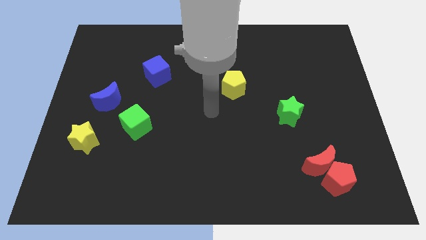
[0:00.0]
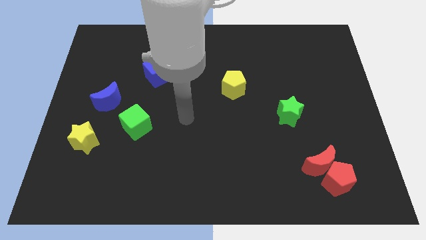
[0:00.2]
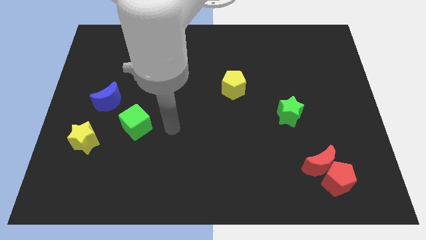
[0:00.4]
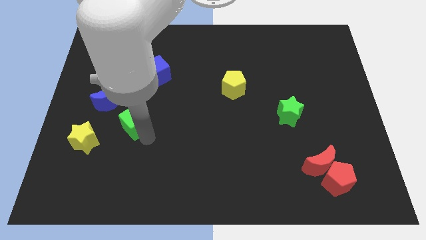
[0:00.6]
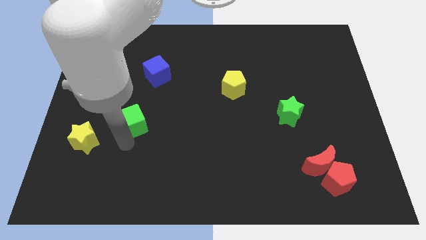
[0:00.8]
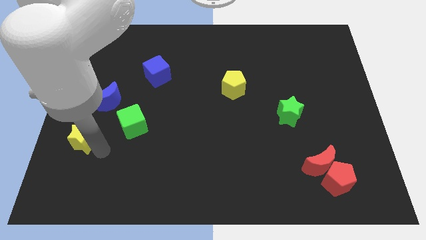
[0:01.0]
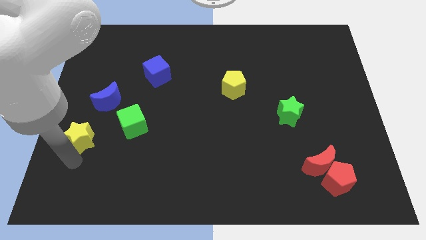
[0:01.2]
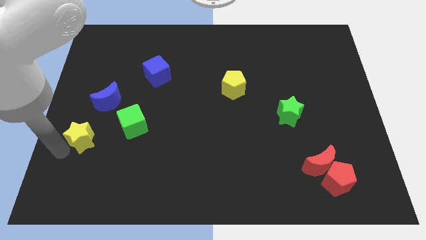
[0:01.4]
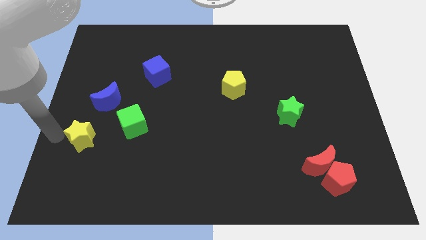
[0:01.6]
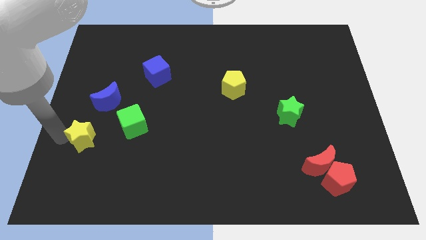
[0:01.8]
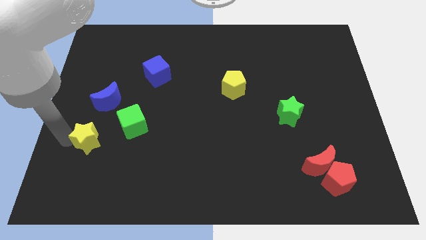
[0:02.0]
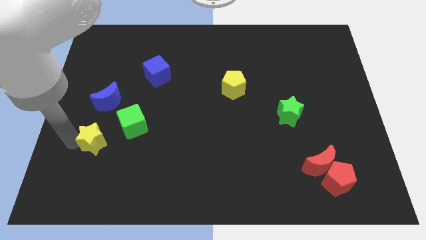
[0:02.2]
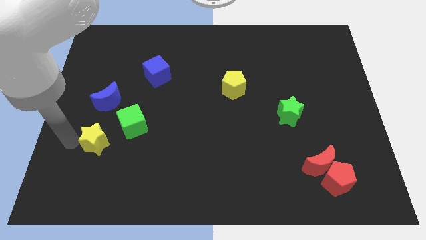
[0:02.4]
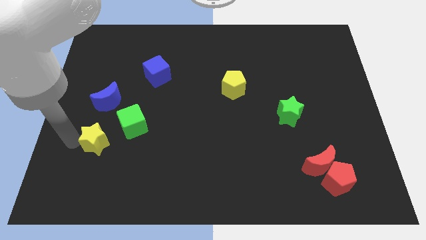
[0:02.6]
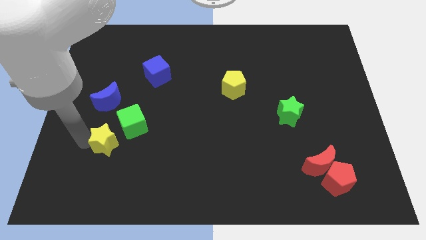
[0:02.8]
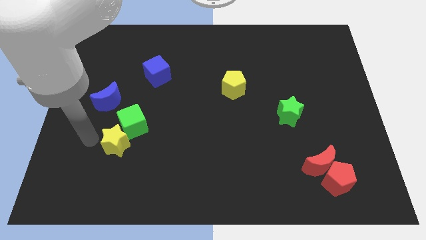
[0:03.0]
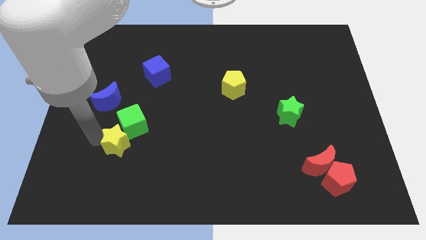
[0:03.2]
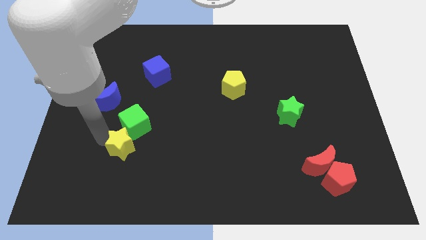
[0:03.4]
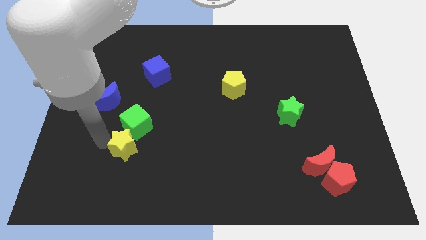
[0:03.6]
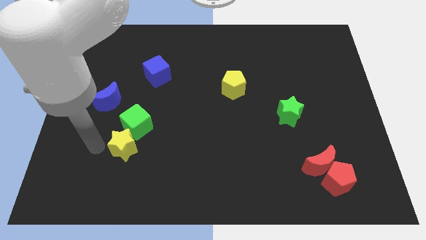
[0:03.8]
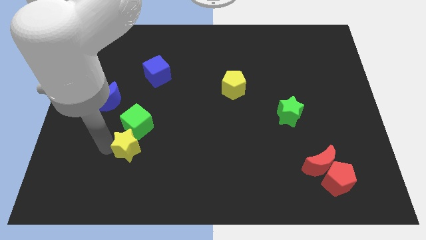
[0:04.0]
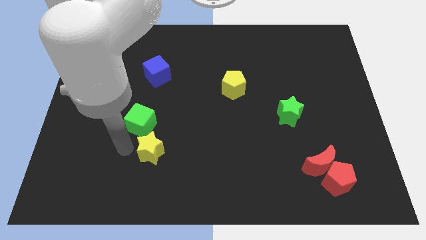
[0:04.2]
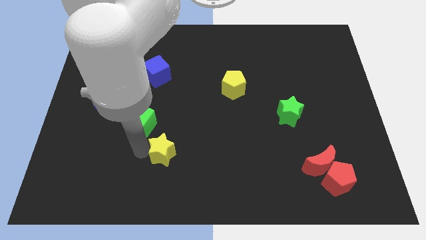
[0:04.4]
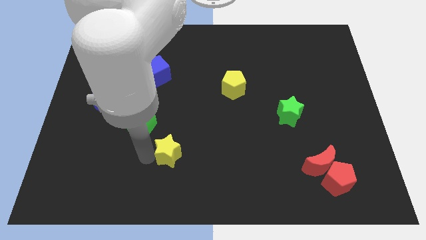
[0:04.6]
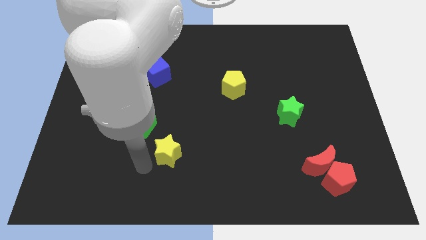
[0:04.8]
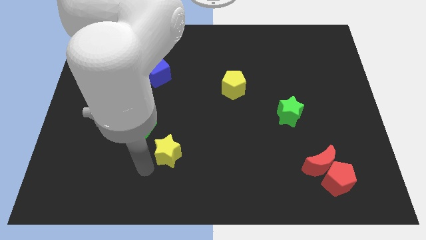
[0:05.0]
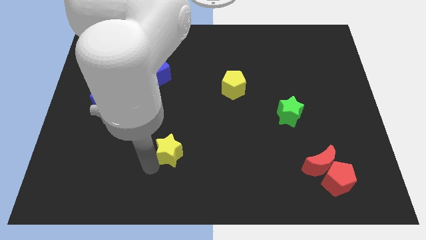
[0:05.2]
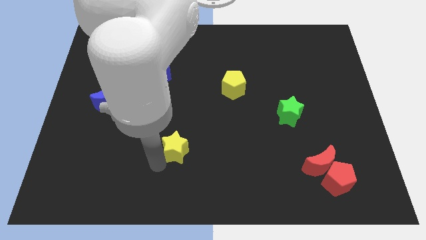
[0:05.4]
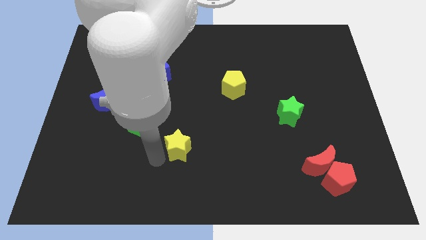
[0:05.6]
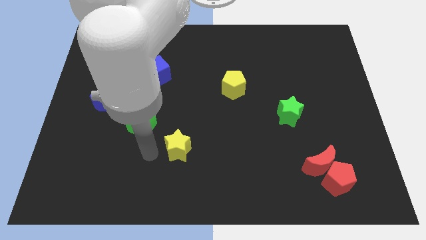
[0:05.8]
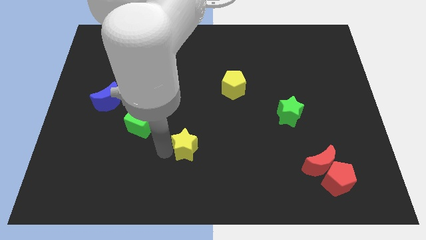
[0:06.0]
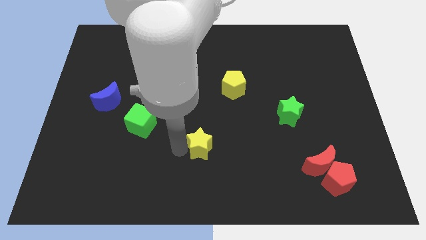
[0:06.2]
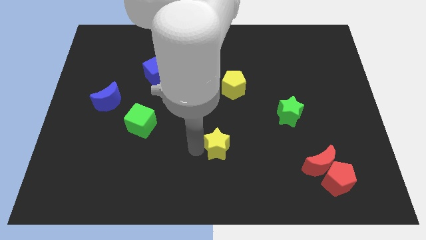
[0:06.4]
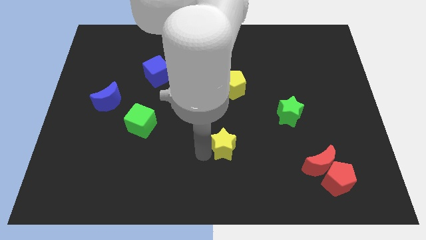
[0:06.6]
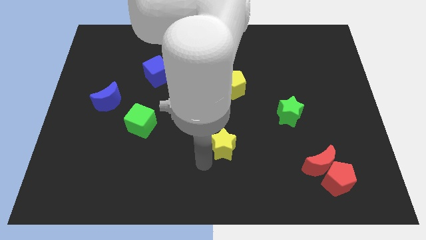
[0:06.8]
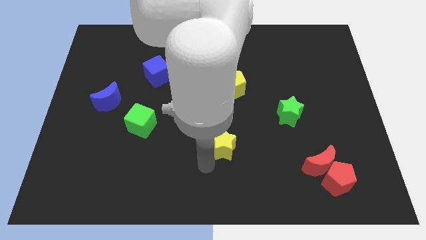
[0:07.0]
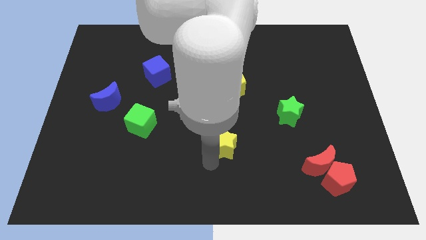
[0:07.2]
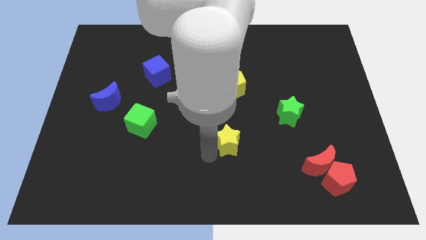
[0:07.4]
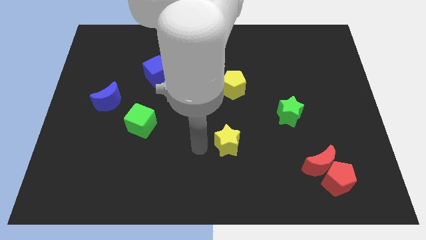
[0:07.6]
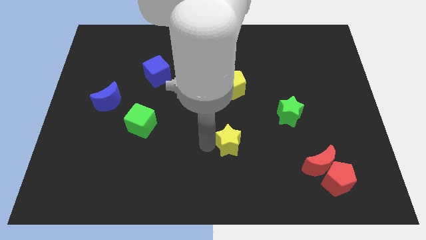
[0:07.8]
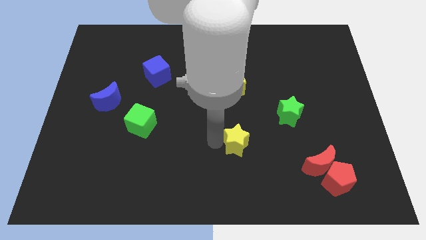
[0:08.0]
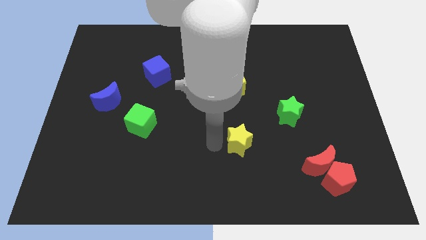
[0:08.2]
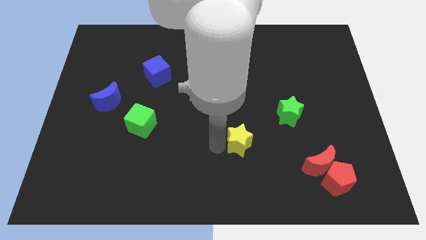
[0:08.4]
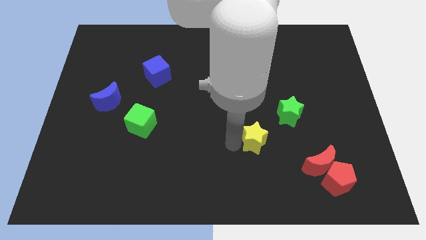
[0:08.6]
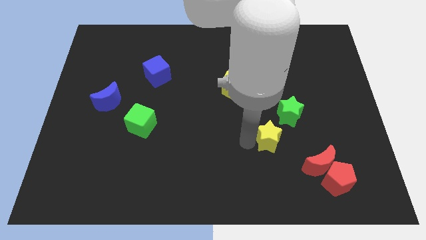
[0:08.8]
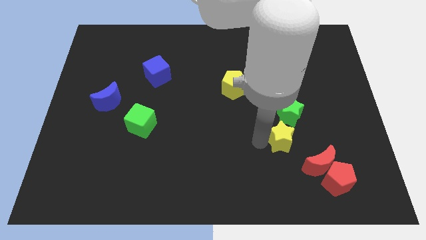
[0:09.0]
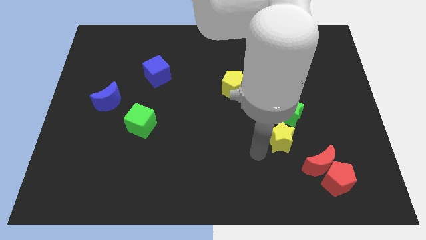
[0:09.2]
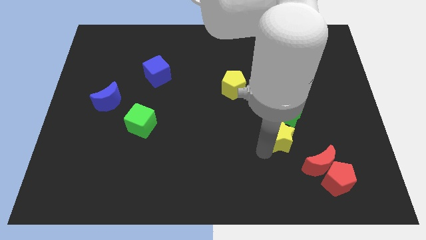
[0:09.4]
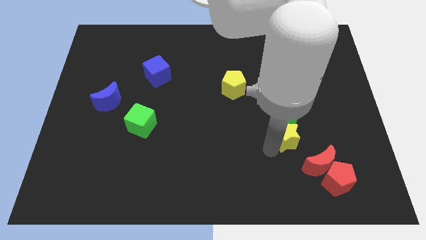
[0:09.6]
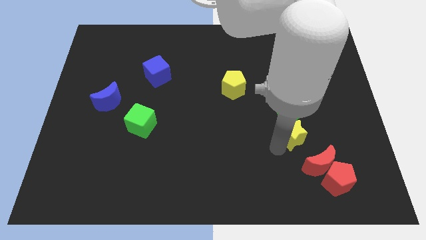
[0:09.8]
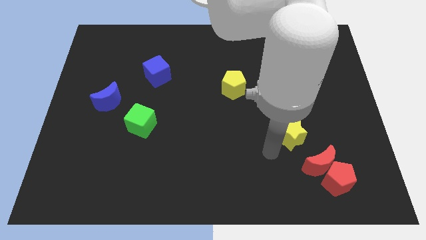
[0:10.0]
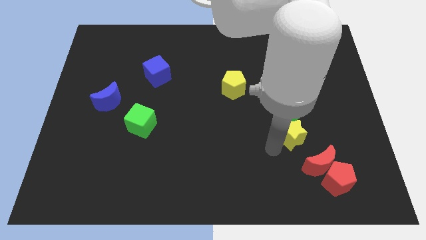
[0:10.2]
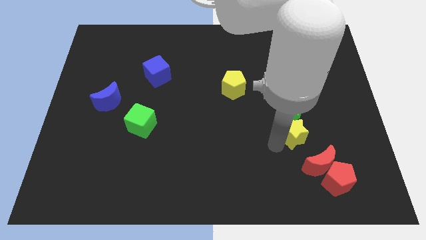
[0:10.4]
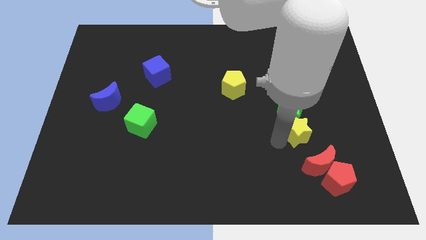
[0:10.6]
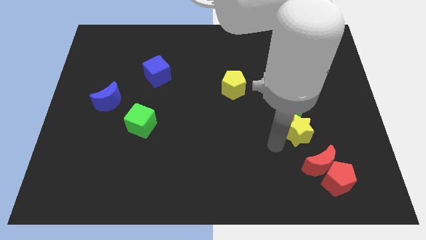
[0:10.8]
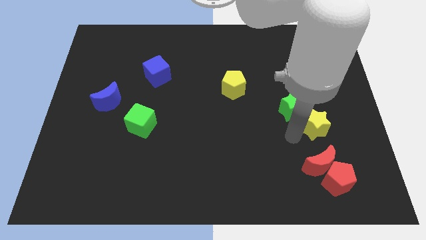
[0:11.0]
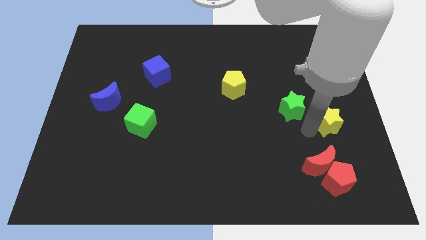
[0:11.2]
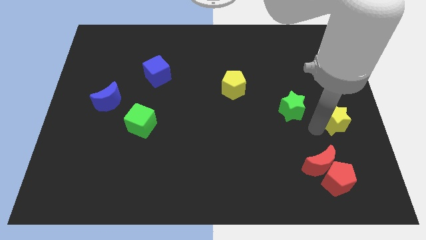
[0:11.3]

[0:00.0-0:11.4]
push the yellow star to the right side of the board
